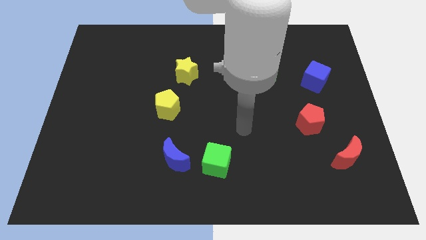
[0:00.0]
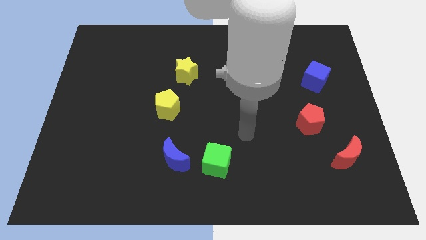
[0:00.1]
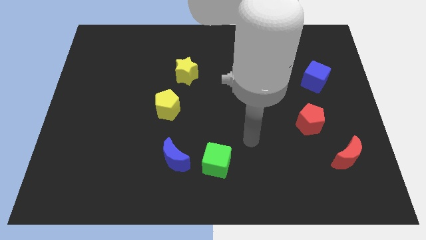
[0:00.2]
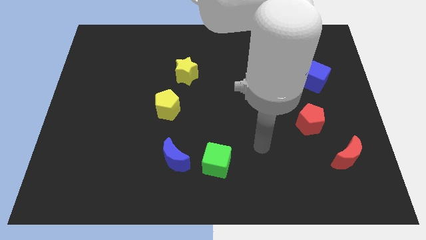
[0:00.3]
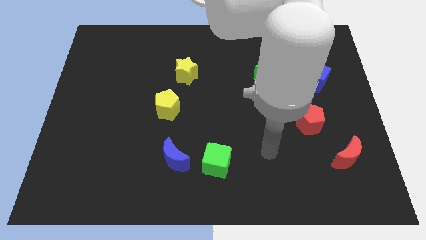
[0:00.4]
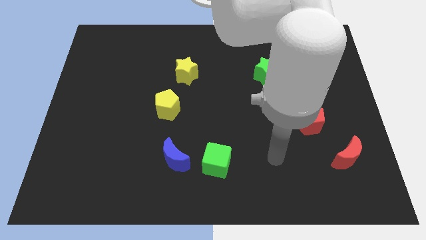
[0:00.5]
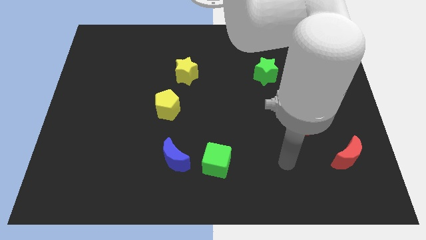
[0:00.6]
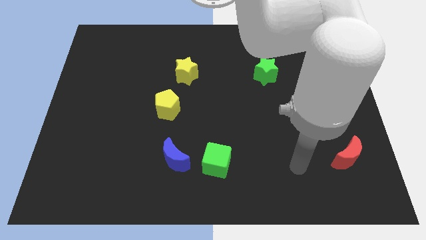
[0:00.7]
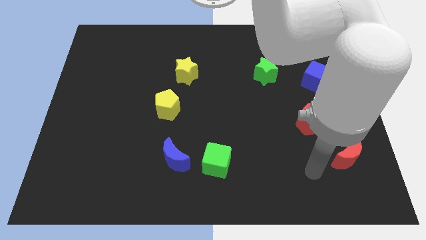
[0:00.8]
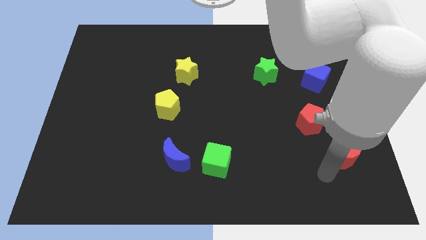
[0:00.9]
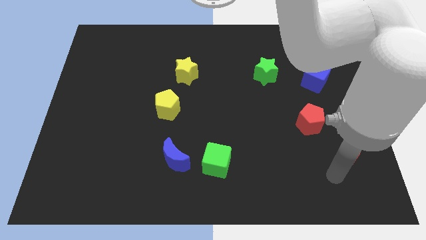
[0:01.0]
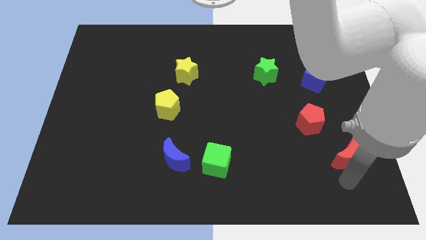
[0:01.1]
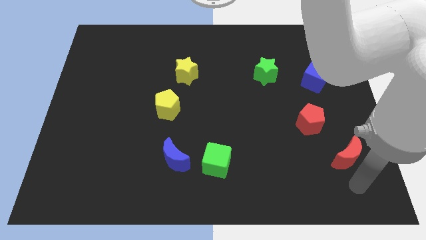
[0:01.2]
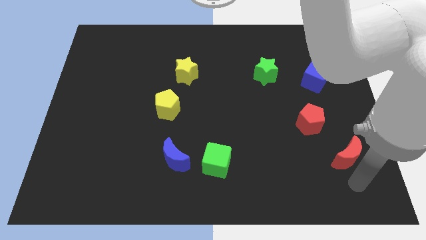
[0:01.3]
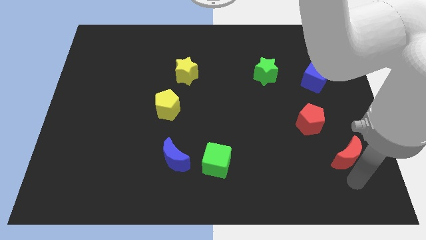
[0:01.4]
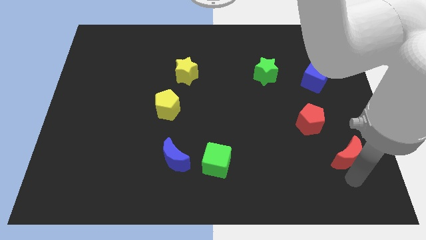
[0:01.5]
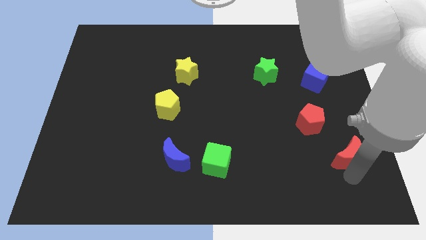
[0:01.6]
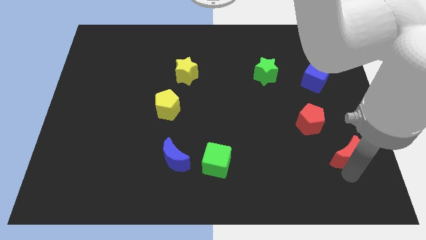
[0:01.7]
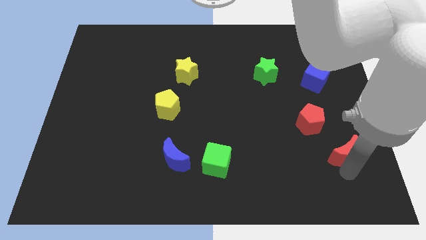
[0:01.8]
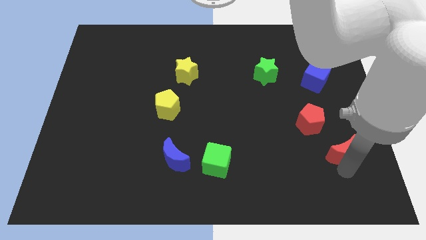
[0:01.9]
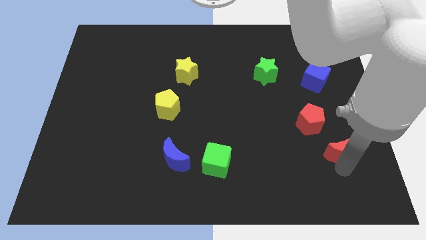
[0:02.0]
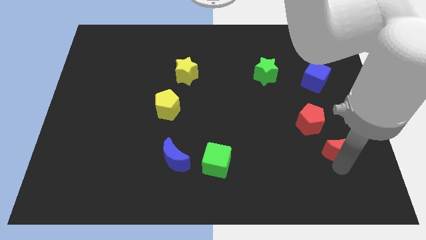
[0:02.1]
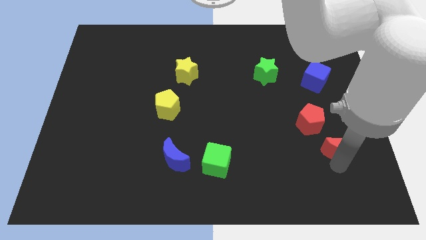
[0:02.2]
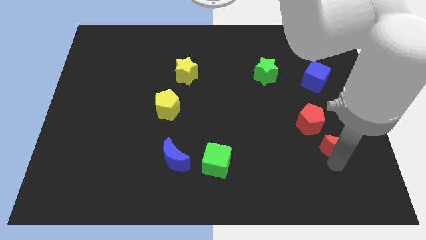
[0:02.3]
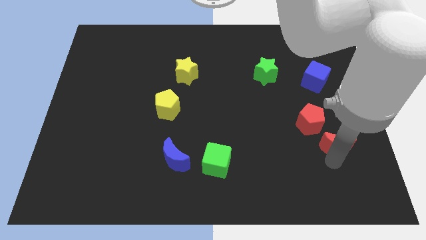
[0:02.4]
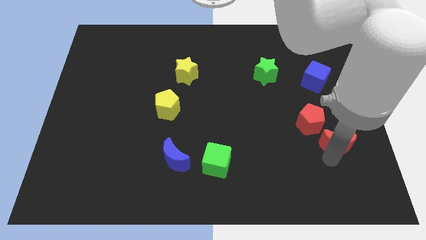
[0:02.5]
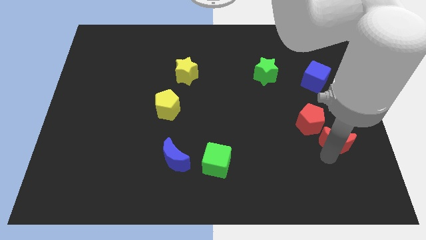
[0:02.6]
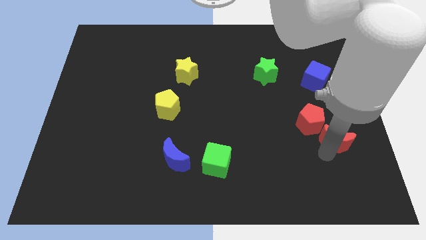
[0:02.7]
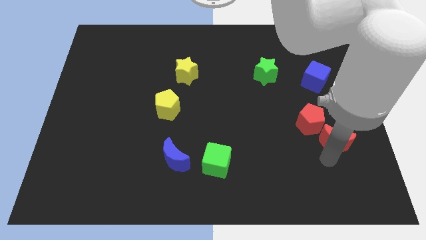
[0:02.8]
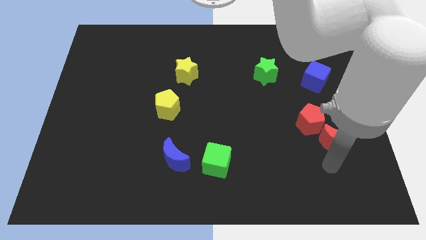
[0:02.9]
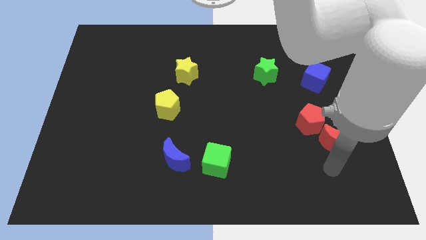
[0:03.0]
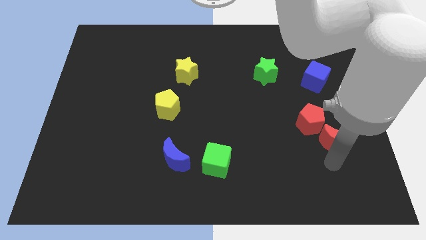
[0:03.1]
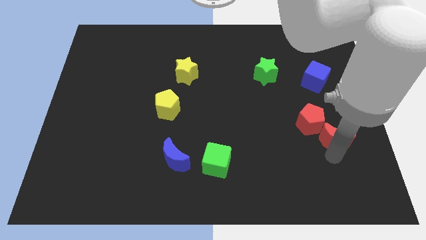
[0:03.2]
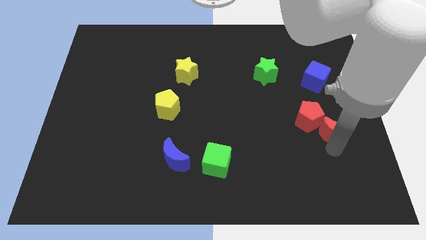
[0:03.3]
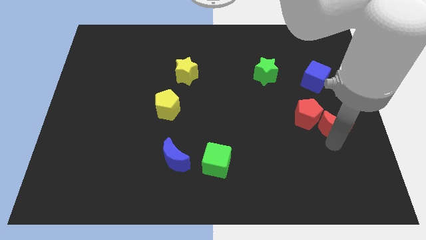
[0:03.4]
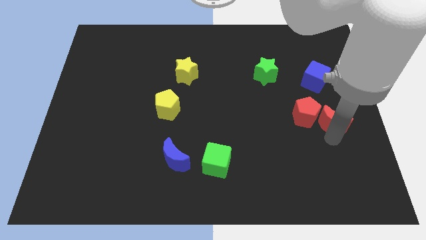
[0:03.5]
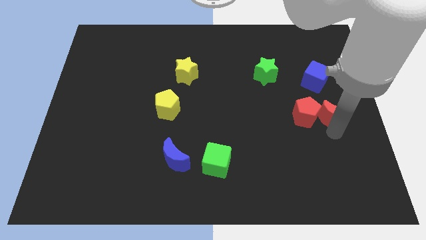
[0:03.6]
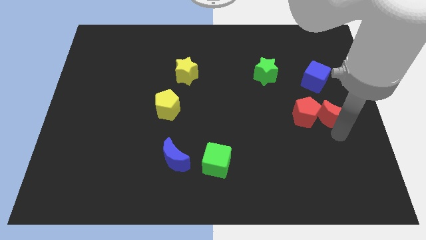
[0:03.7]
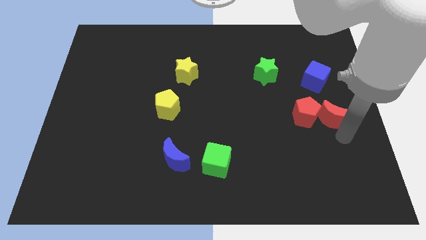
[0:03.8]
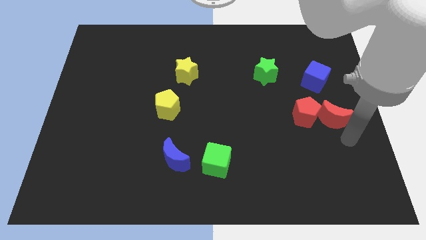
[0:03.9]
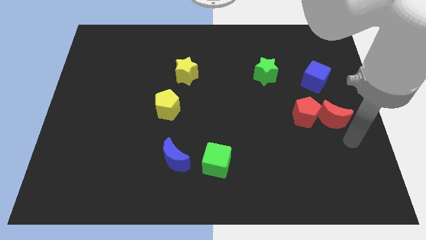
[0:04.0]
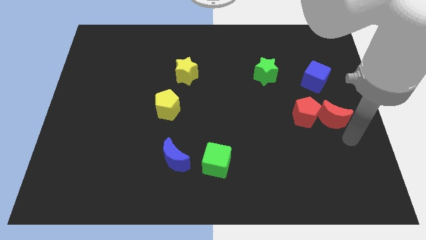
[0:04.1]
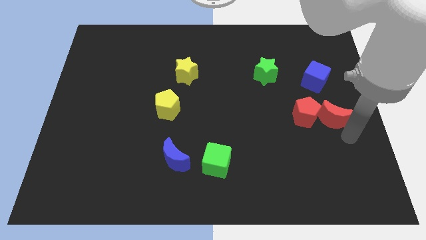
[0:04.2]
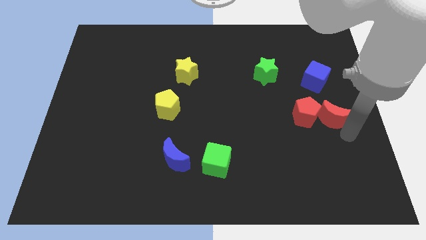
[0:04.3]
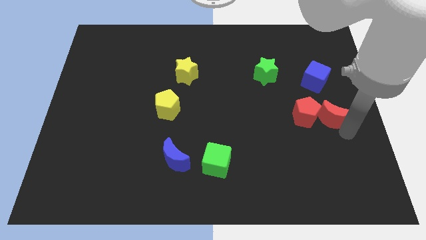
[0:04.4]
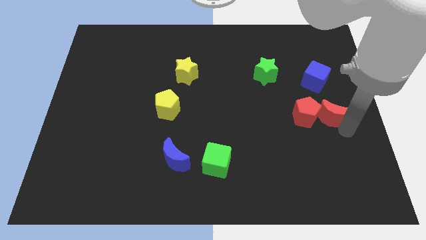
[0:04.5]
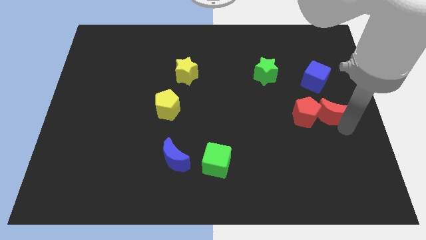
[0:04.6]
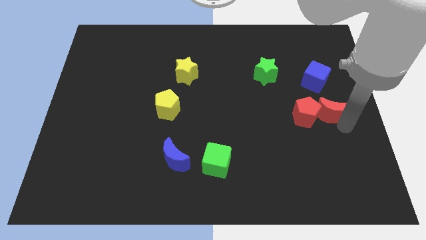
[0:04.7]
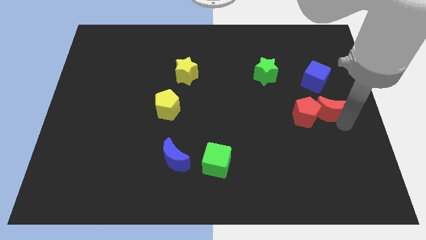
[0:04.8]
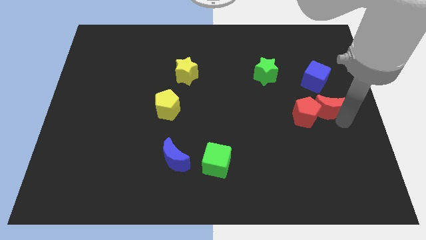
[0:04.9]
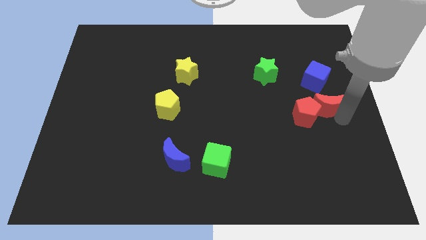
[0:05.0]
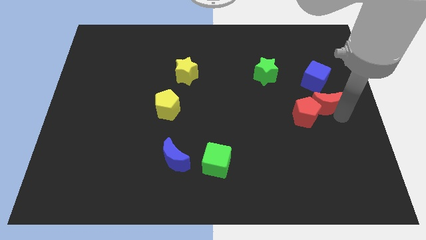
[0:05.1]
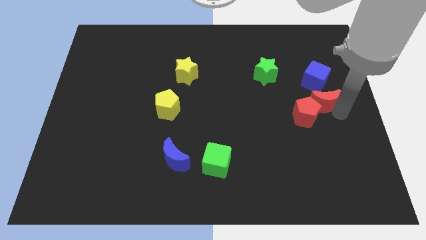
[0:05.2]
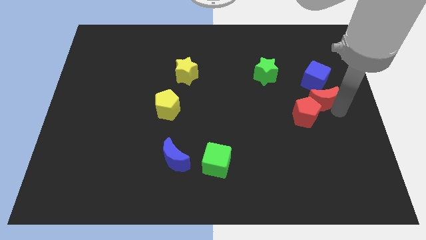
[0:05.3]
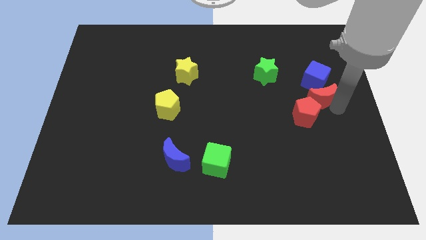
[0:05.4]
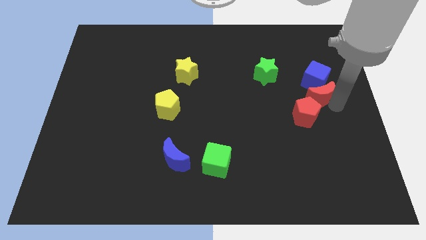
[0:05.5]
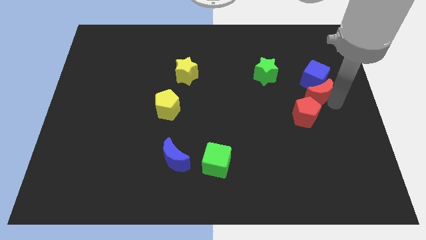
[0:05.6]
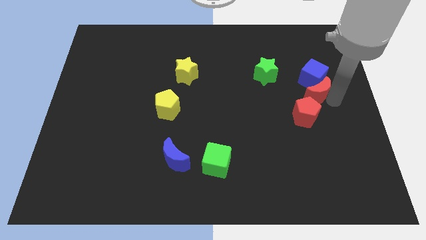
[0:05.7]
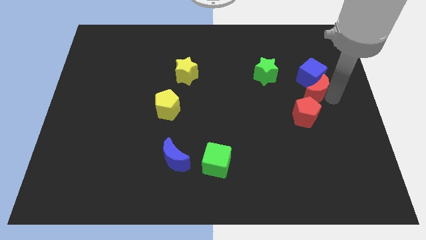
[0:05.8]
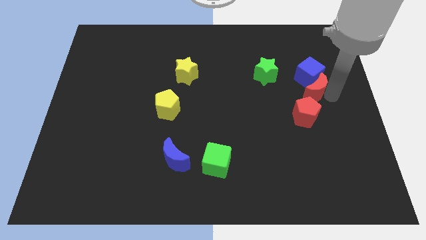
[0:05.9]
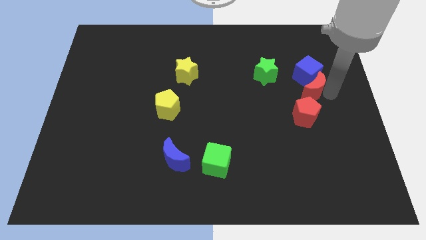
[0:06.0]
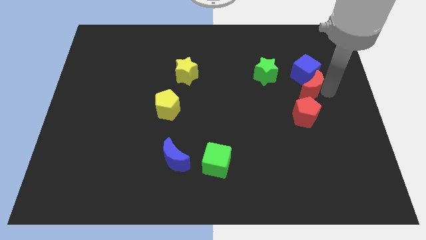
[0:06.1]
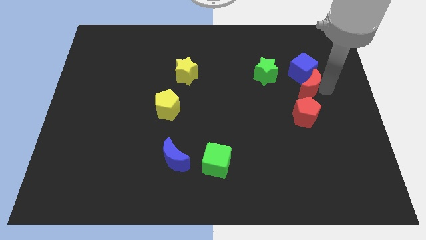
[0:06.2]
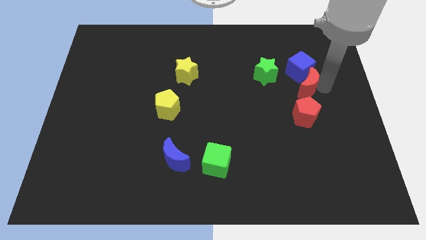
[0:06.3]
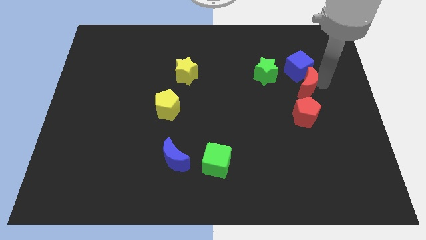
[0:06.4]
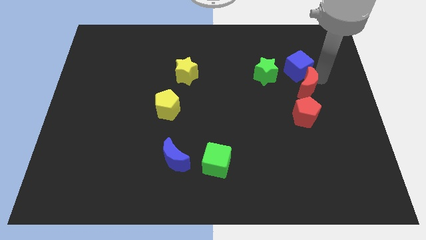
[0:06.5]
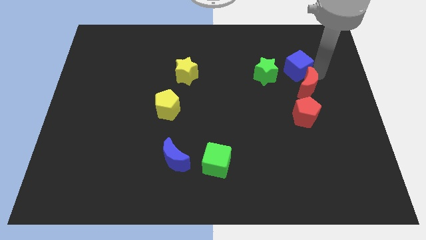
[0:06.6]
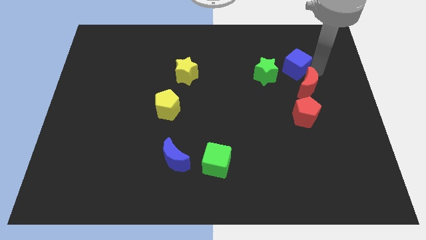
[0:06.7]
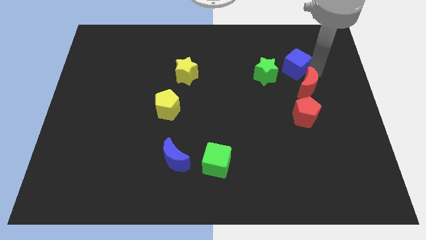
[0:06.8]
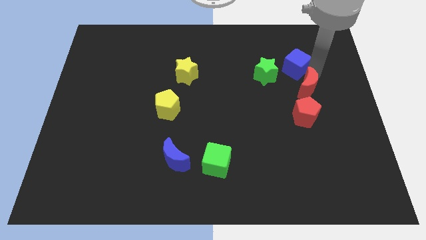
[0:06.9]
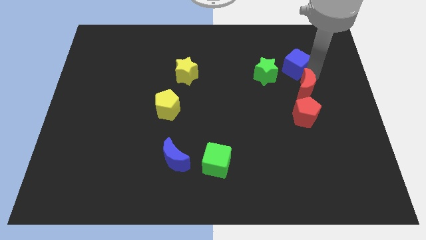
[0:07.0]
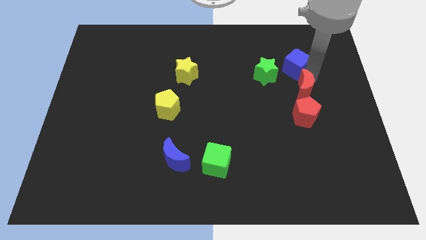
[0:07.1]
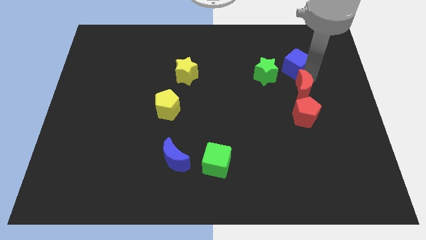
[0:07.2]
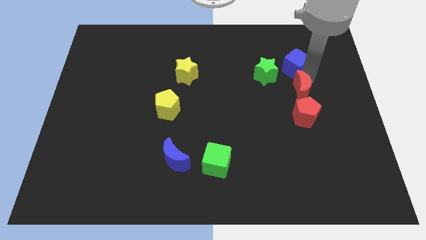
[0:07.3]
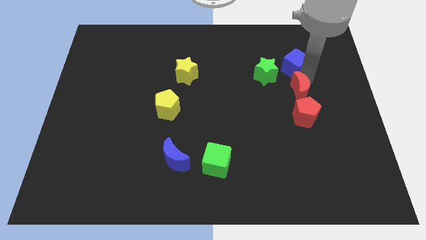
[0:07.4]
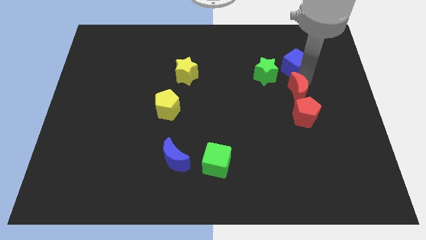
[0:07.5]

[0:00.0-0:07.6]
move the red moon to the top left side of the red pentagon

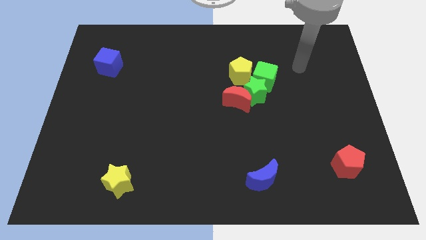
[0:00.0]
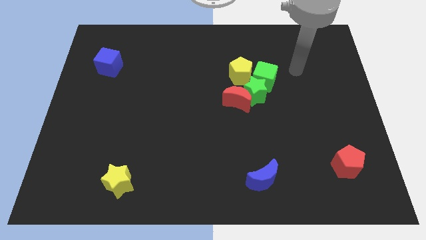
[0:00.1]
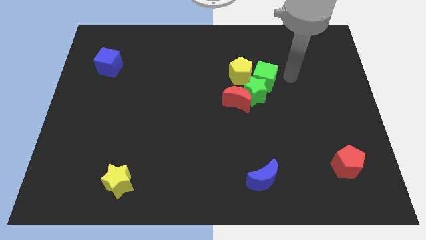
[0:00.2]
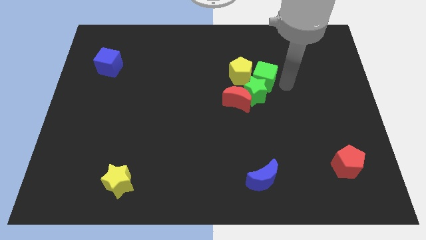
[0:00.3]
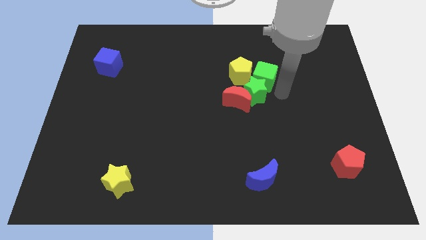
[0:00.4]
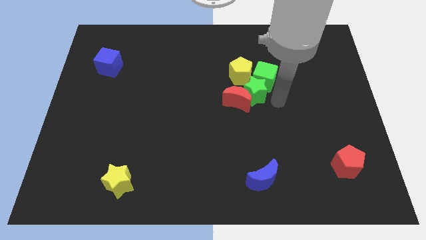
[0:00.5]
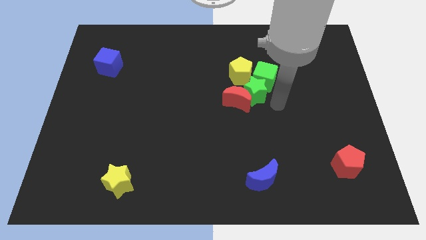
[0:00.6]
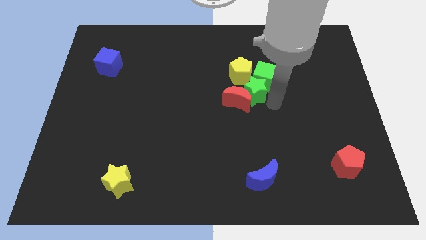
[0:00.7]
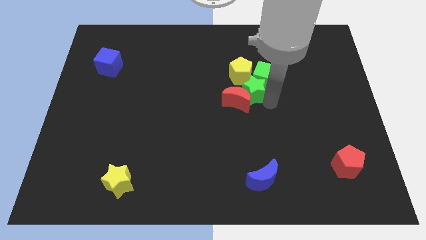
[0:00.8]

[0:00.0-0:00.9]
move the green star just left of the green cube
